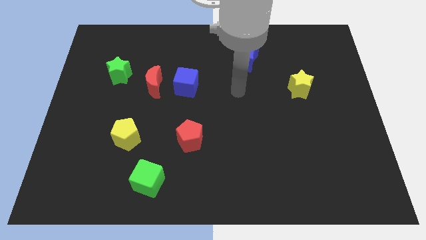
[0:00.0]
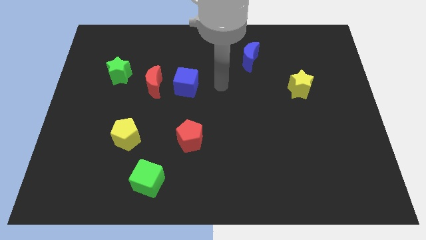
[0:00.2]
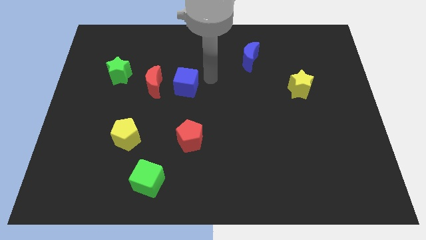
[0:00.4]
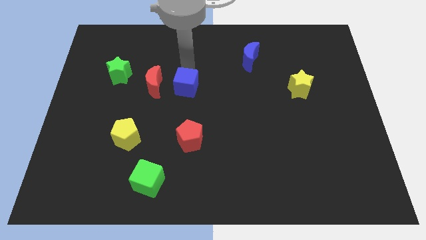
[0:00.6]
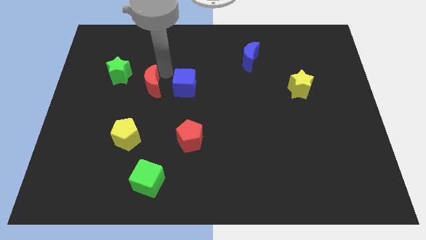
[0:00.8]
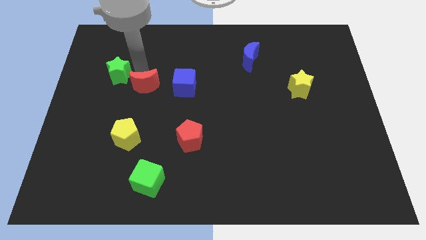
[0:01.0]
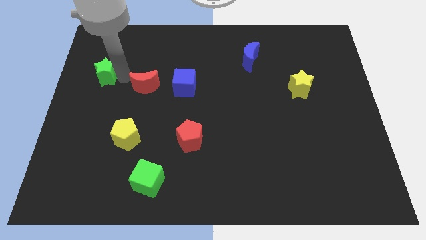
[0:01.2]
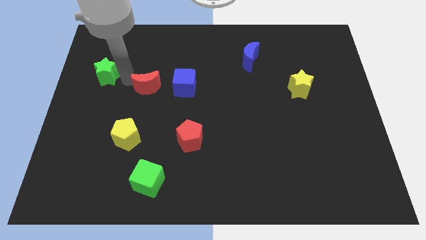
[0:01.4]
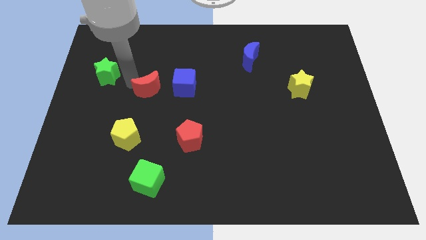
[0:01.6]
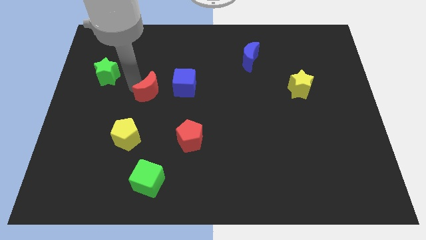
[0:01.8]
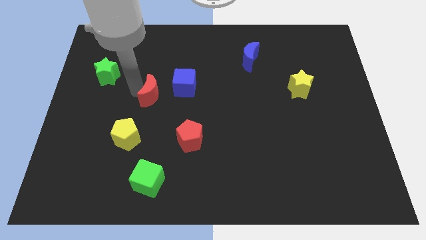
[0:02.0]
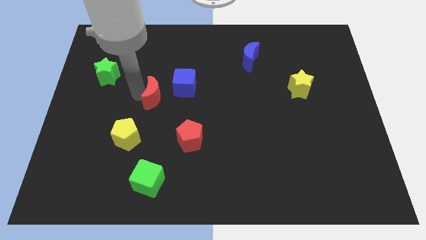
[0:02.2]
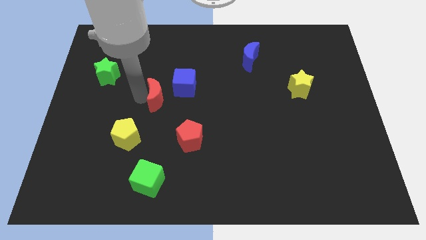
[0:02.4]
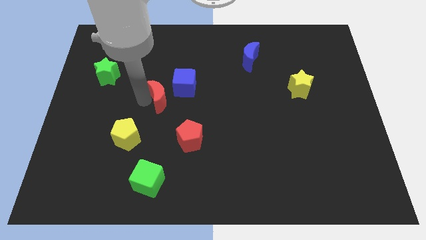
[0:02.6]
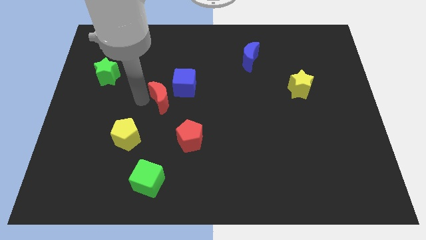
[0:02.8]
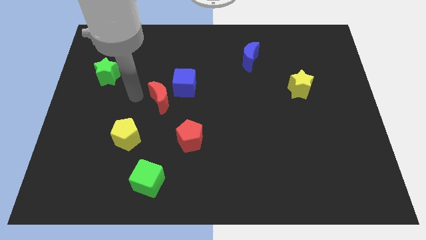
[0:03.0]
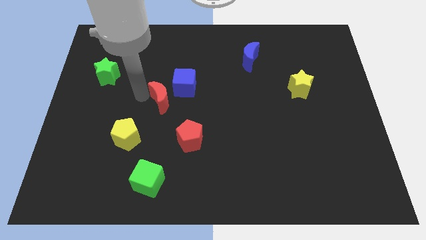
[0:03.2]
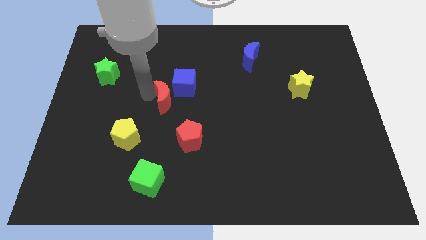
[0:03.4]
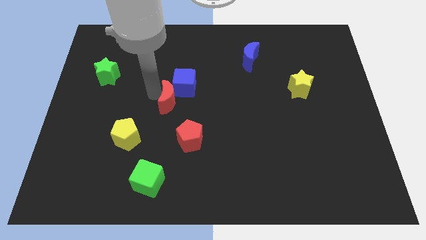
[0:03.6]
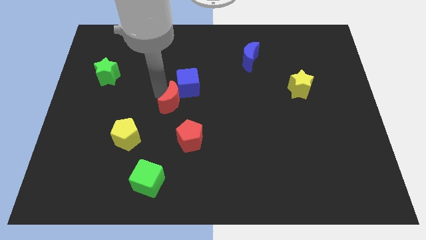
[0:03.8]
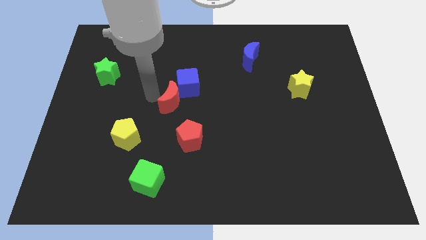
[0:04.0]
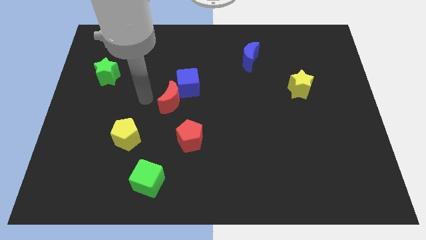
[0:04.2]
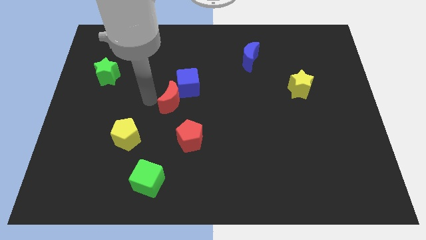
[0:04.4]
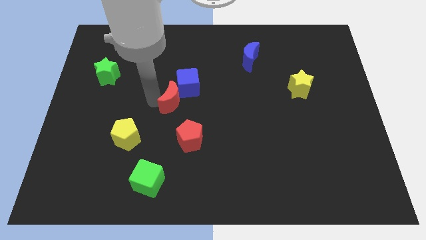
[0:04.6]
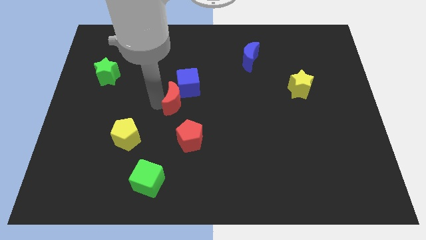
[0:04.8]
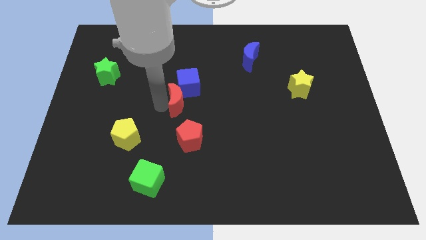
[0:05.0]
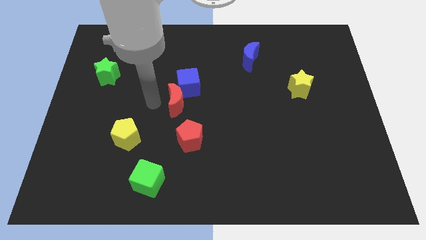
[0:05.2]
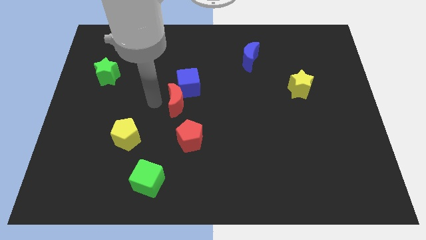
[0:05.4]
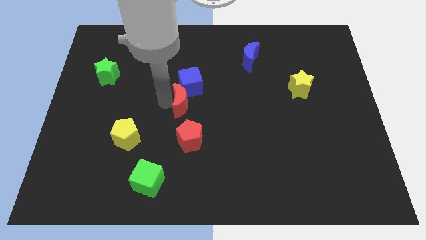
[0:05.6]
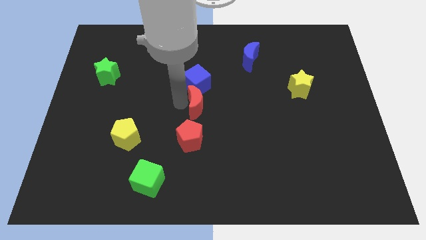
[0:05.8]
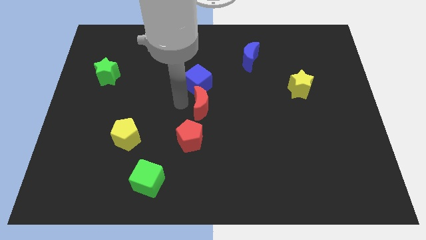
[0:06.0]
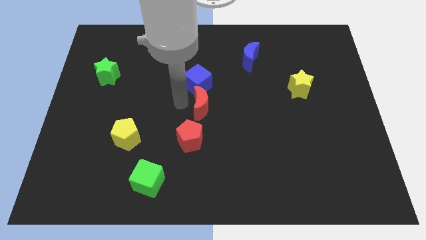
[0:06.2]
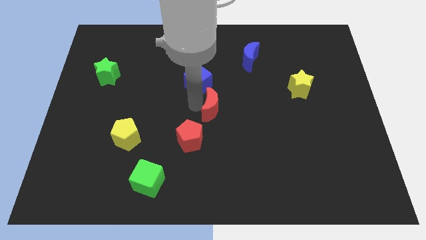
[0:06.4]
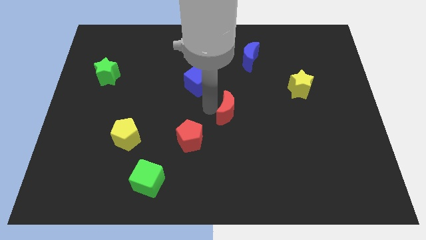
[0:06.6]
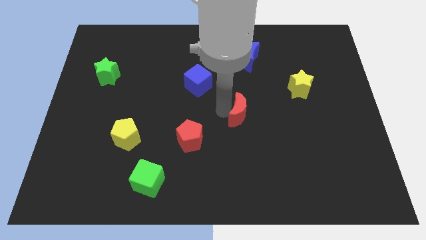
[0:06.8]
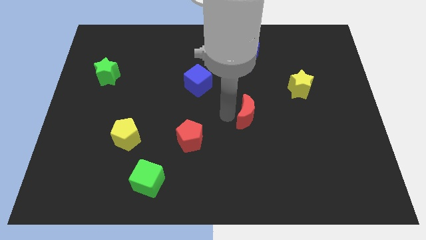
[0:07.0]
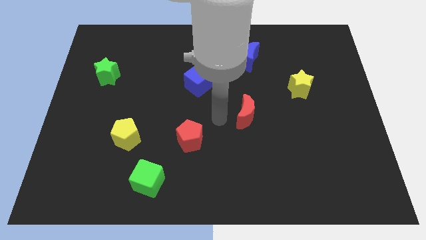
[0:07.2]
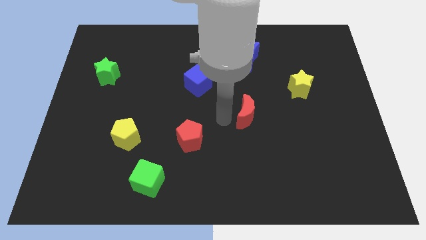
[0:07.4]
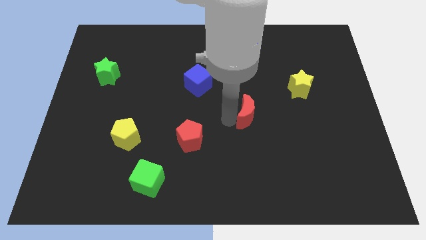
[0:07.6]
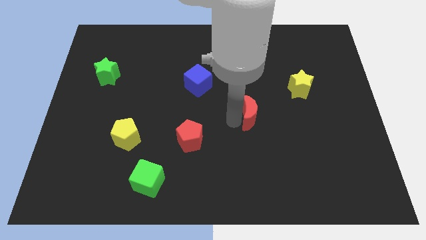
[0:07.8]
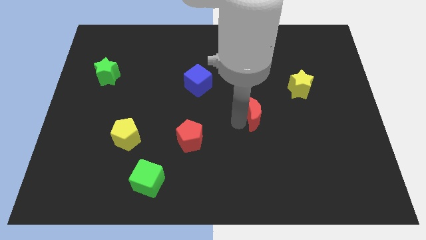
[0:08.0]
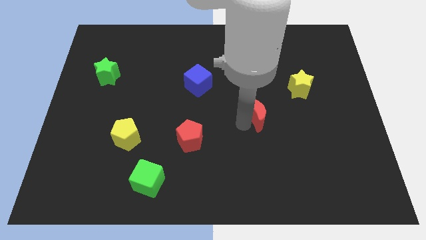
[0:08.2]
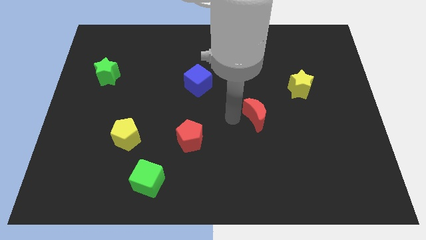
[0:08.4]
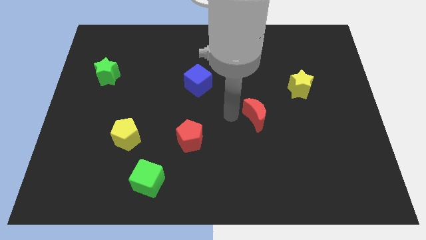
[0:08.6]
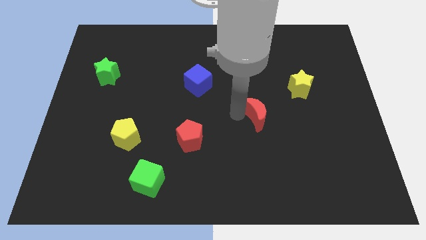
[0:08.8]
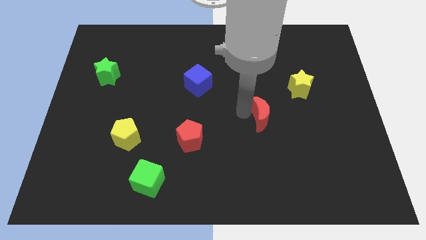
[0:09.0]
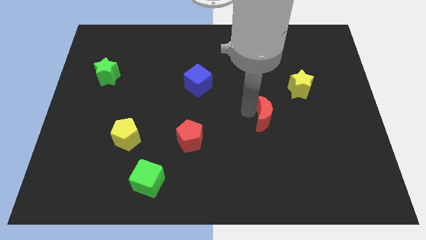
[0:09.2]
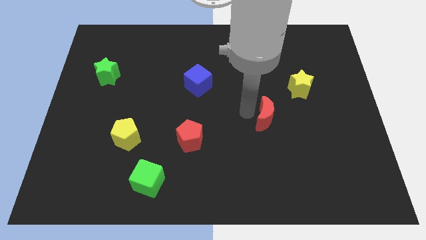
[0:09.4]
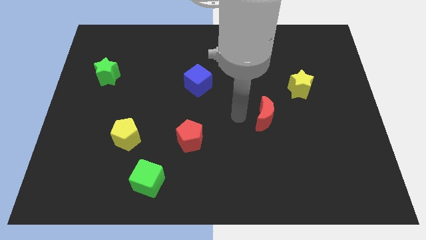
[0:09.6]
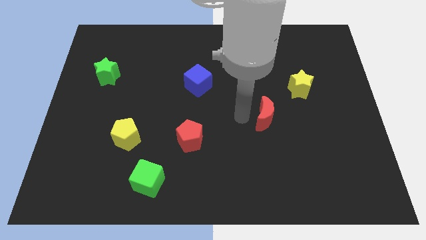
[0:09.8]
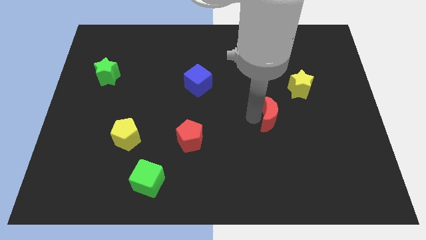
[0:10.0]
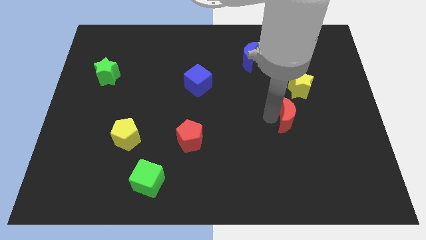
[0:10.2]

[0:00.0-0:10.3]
push the red moon to the bottom side of the yellow star

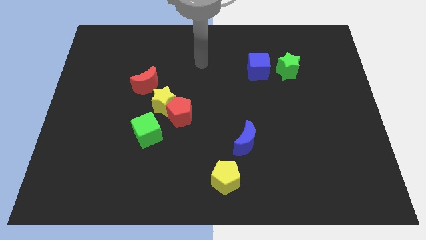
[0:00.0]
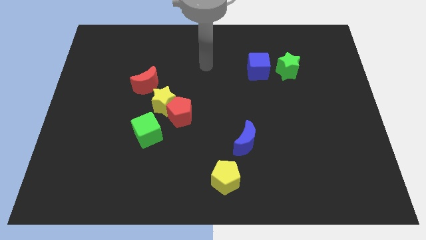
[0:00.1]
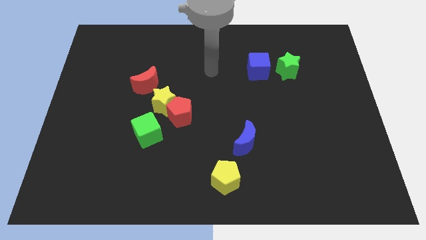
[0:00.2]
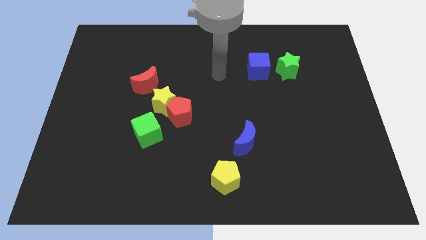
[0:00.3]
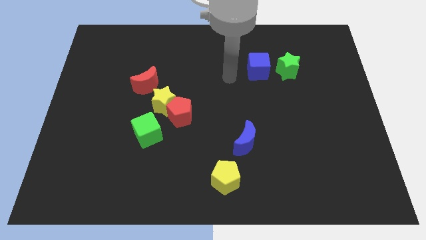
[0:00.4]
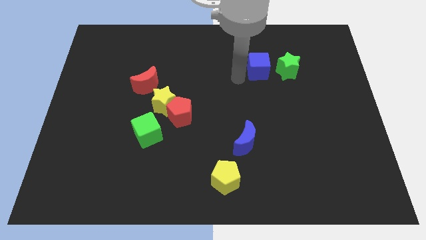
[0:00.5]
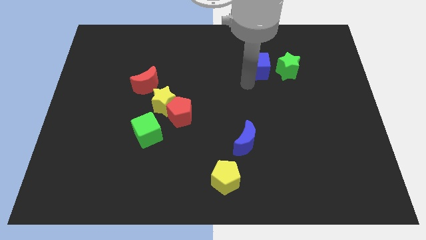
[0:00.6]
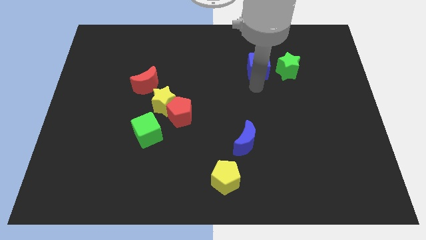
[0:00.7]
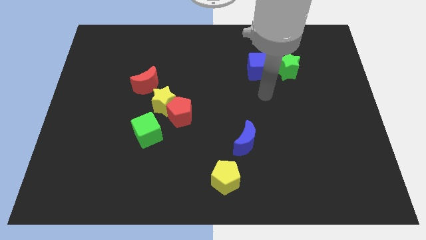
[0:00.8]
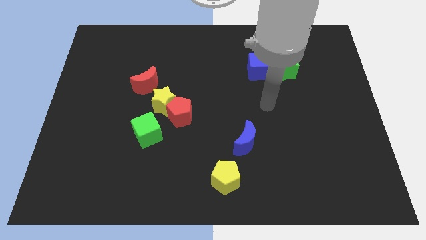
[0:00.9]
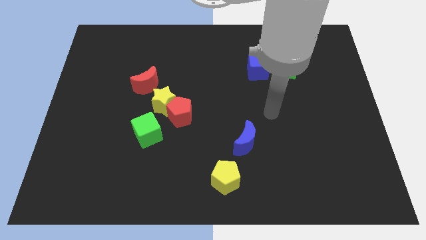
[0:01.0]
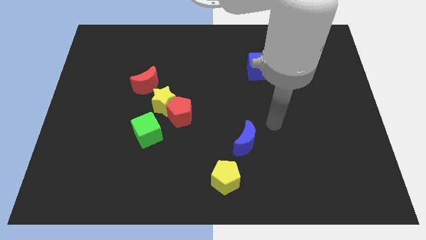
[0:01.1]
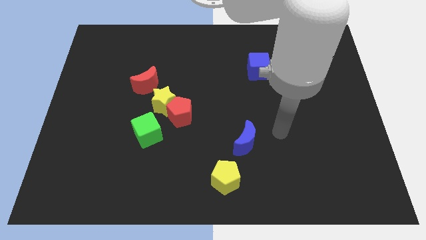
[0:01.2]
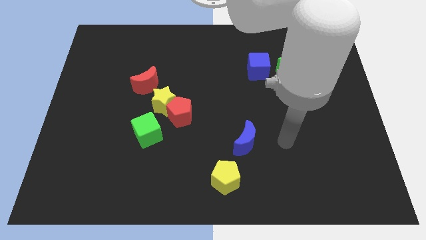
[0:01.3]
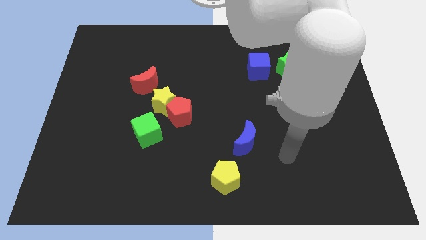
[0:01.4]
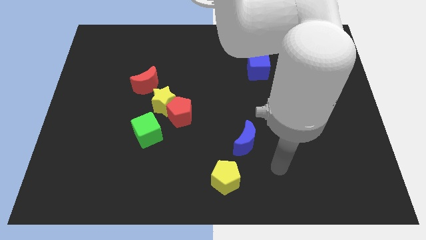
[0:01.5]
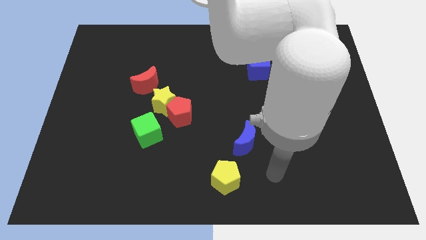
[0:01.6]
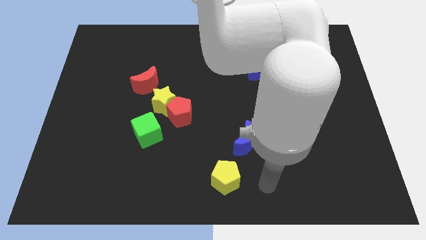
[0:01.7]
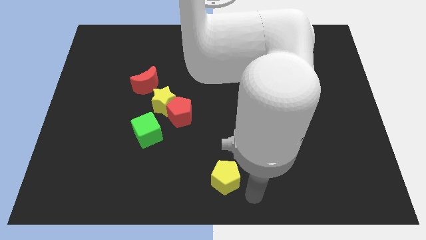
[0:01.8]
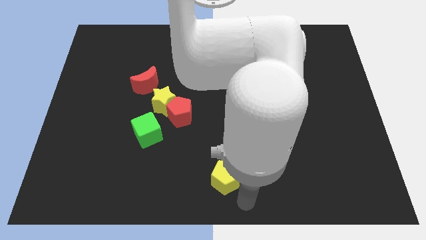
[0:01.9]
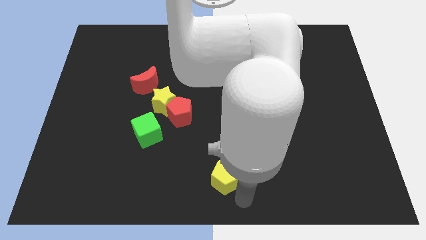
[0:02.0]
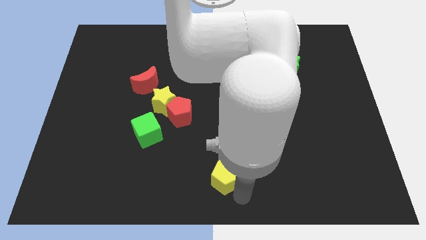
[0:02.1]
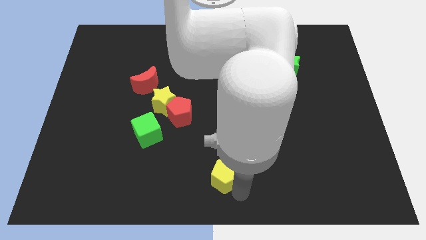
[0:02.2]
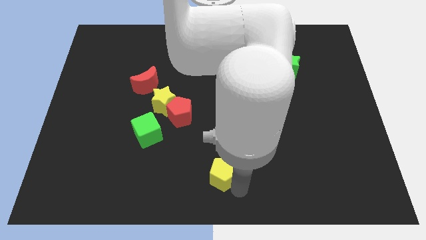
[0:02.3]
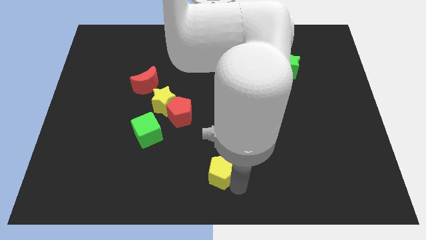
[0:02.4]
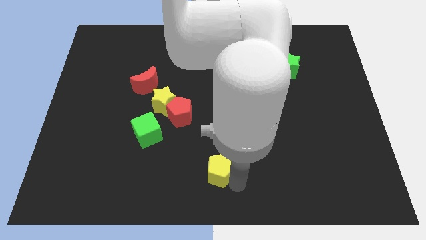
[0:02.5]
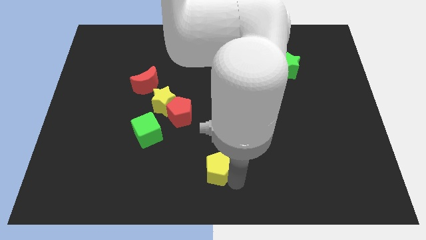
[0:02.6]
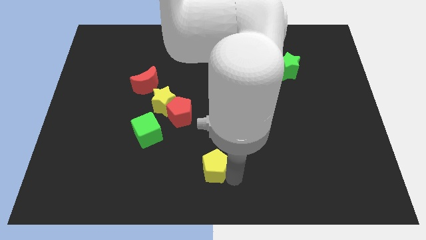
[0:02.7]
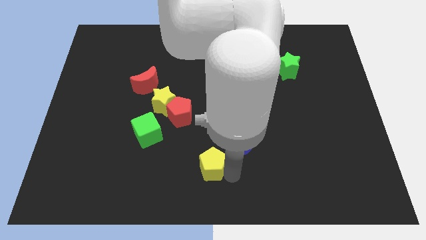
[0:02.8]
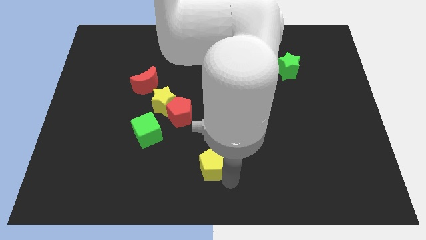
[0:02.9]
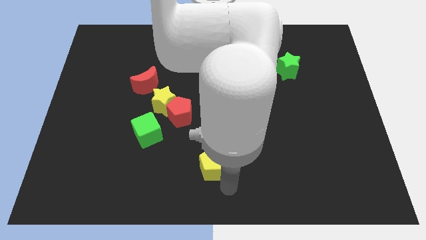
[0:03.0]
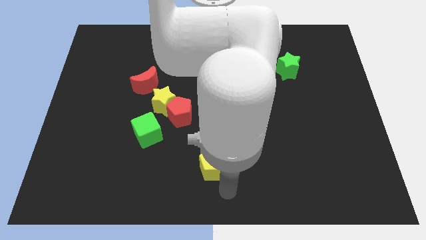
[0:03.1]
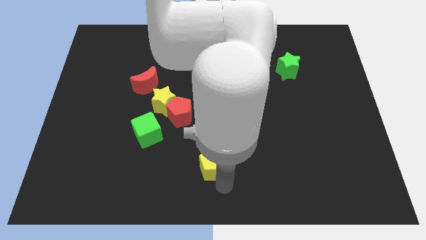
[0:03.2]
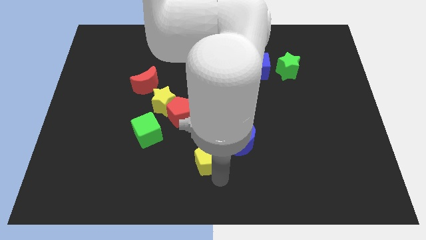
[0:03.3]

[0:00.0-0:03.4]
slide the yellow pentagon to the left of the blue moon
